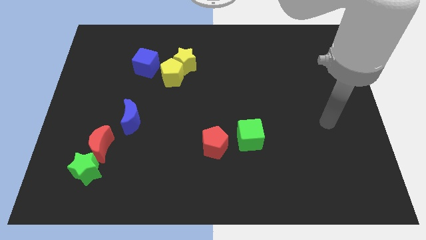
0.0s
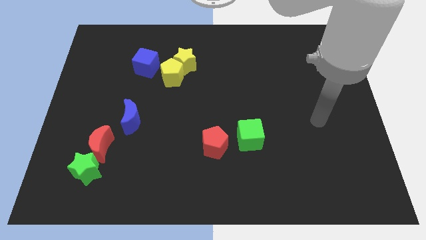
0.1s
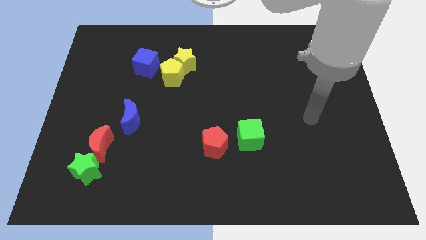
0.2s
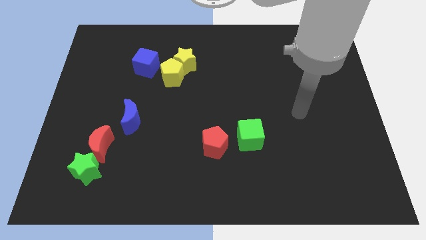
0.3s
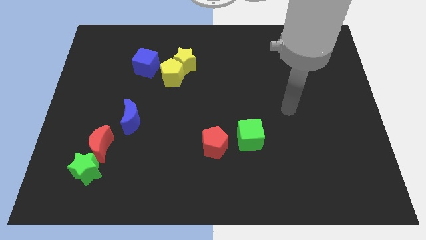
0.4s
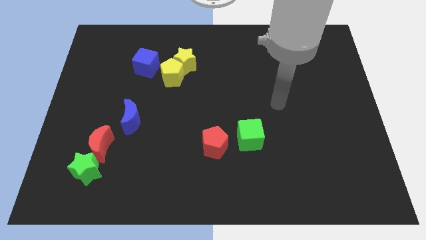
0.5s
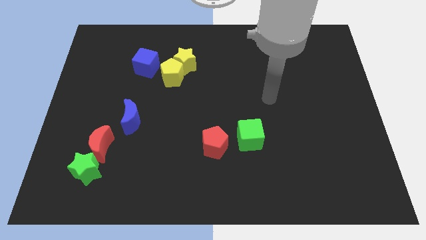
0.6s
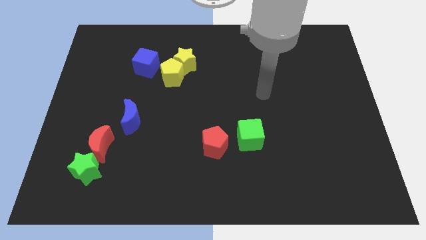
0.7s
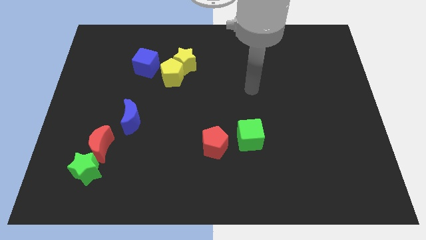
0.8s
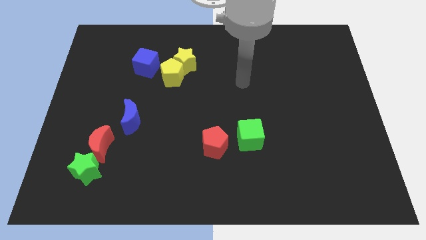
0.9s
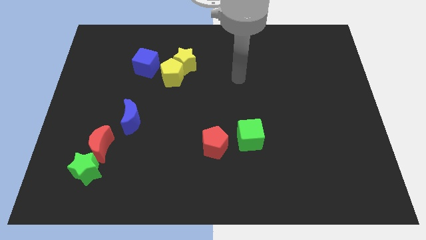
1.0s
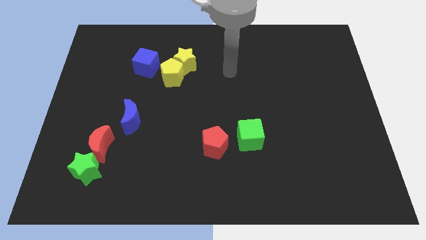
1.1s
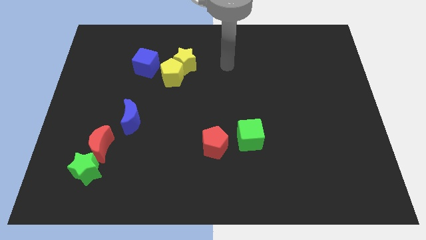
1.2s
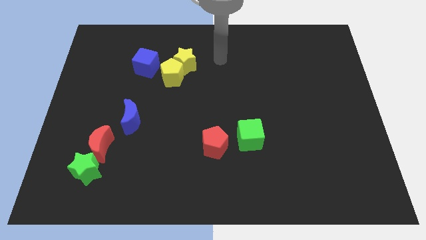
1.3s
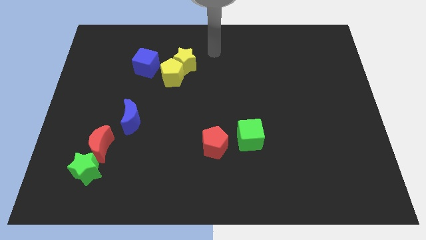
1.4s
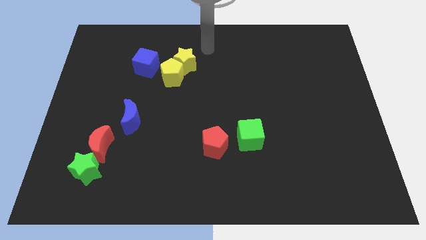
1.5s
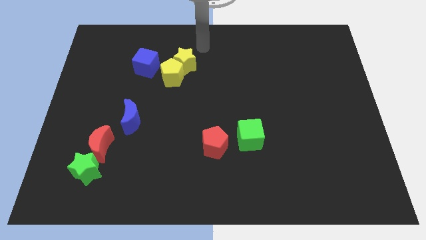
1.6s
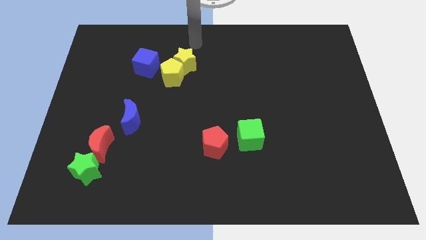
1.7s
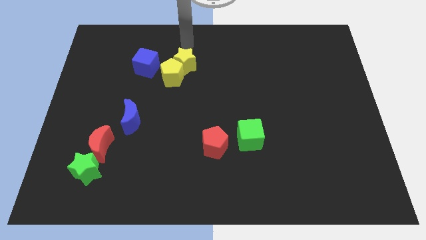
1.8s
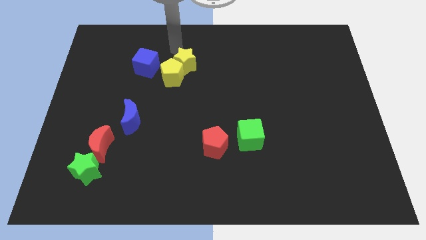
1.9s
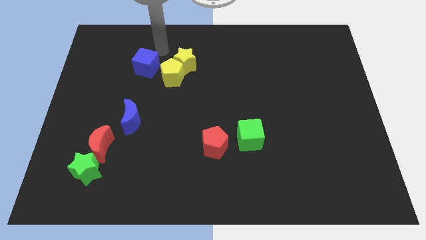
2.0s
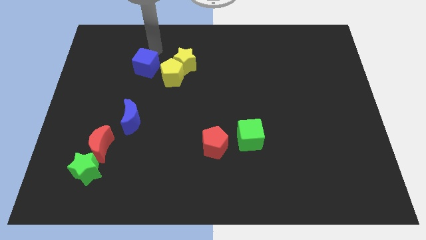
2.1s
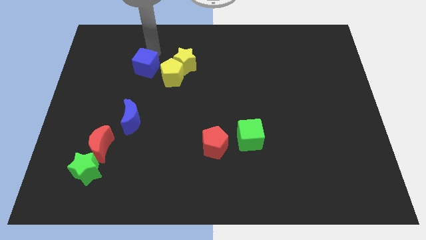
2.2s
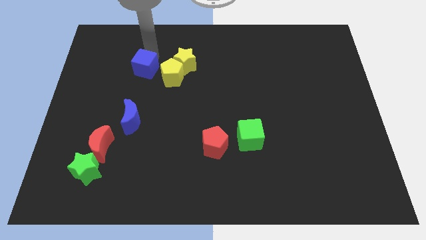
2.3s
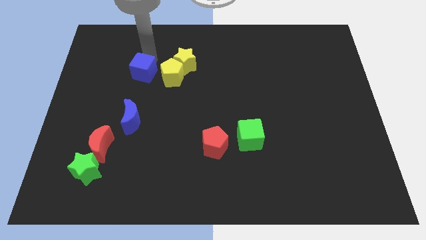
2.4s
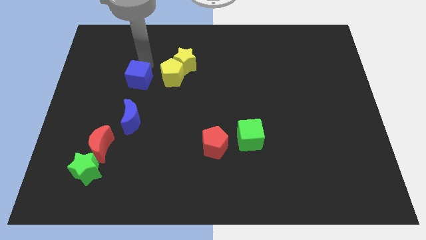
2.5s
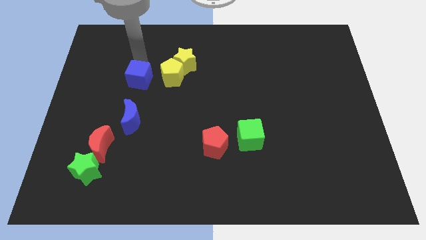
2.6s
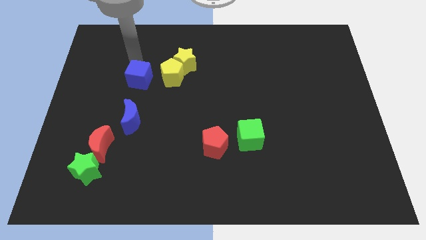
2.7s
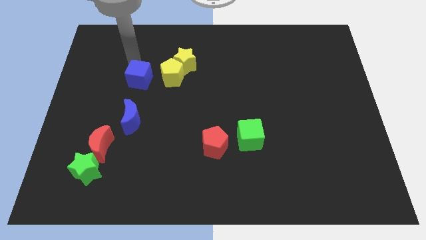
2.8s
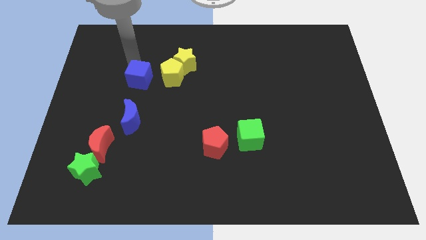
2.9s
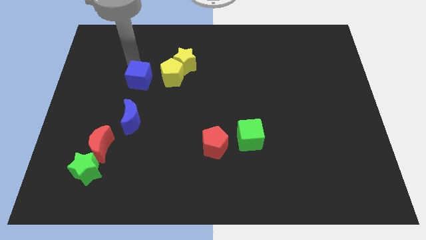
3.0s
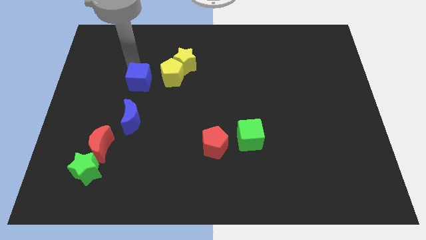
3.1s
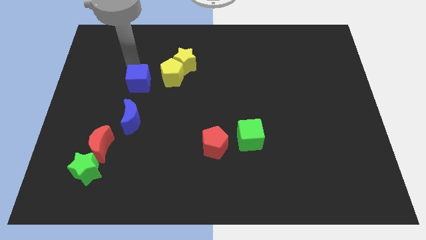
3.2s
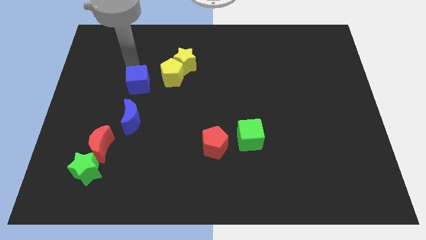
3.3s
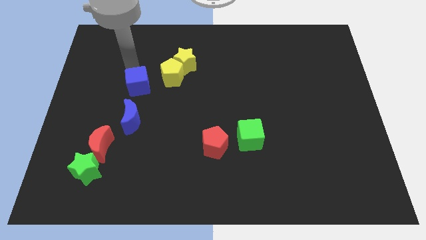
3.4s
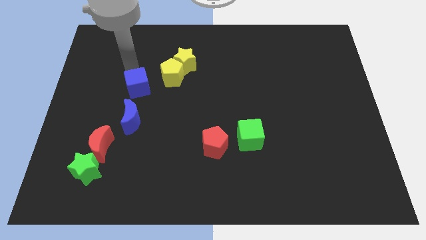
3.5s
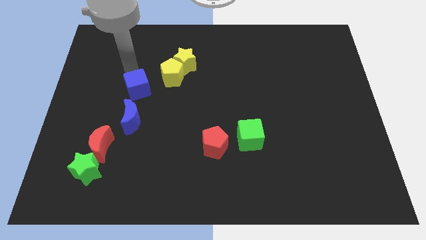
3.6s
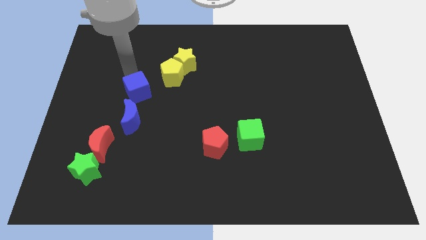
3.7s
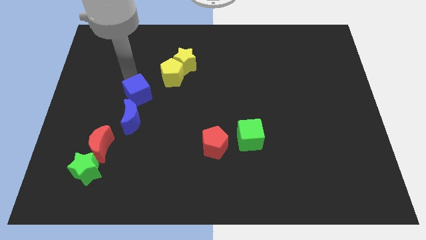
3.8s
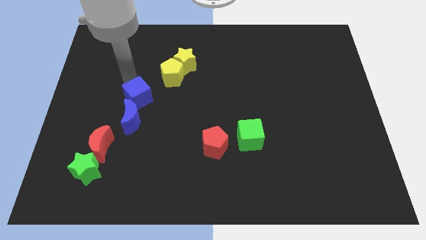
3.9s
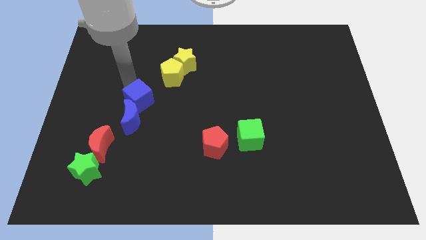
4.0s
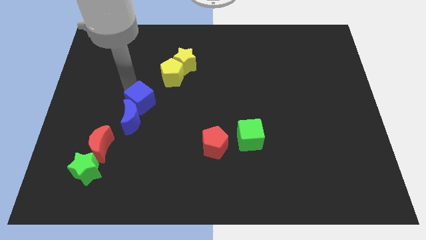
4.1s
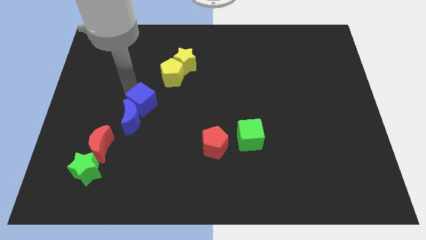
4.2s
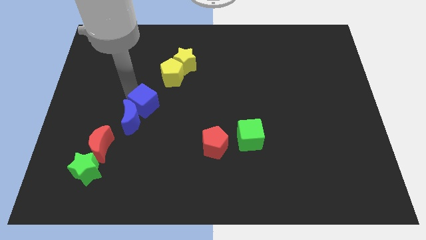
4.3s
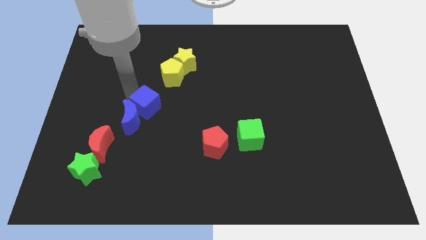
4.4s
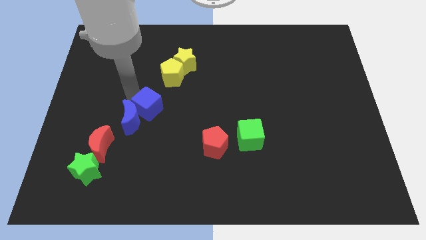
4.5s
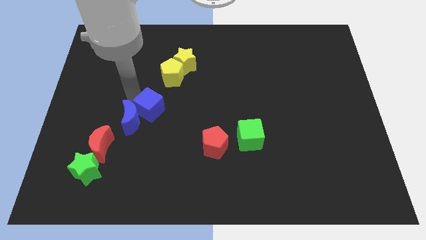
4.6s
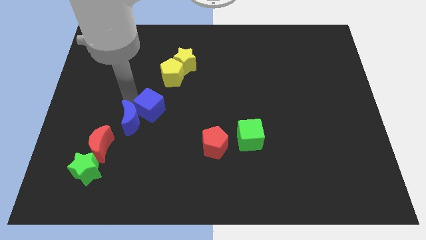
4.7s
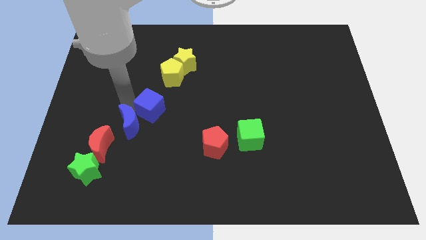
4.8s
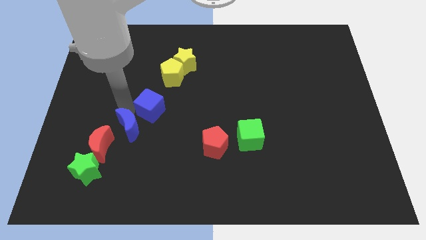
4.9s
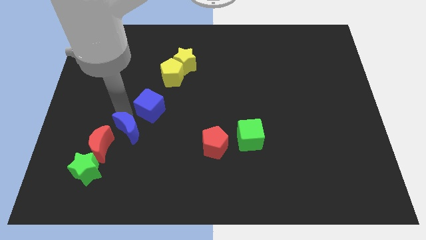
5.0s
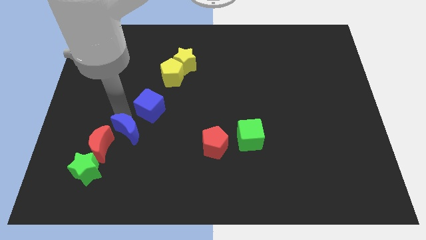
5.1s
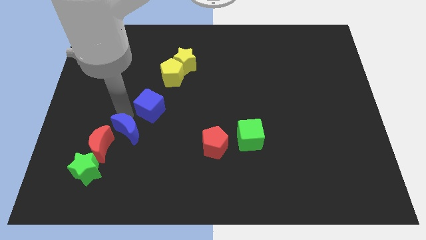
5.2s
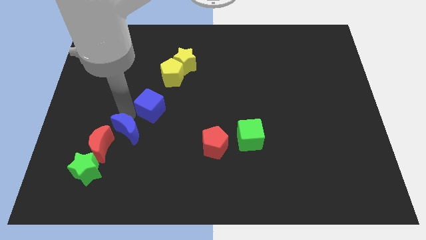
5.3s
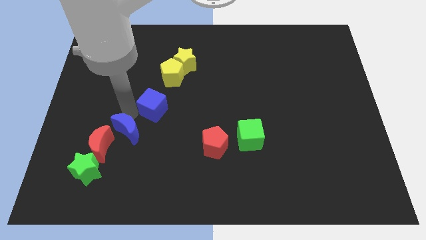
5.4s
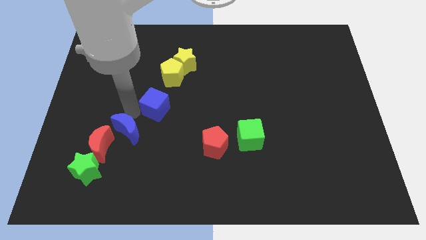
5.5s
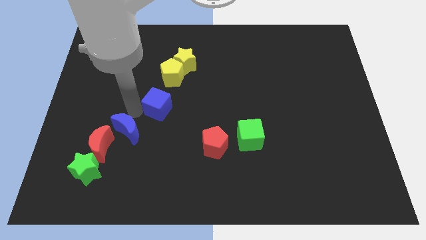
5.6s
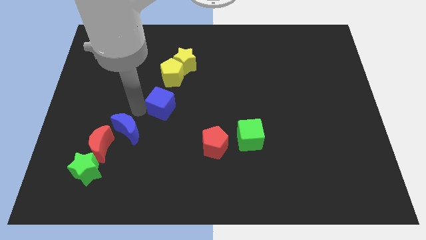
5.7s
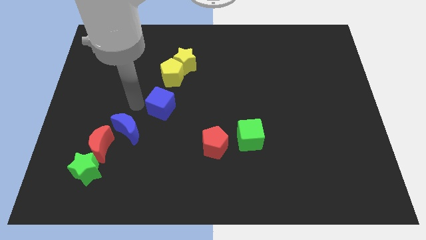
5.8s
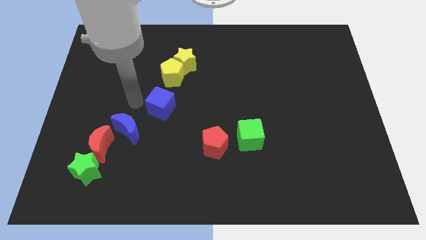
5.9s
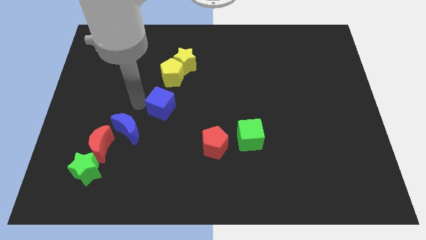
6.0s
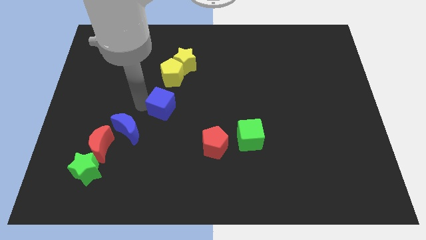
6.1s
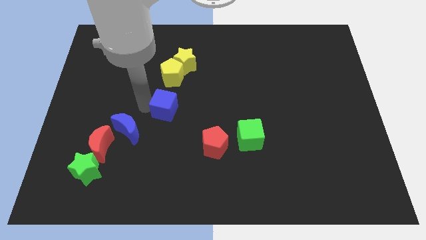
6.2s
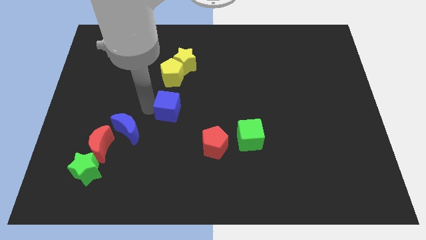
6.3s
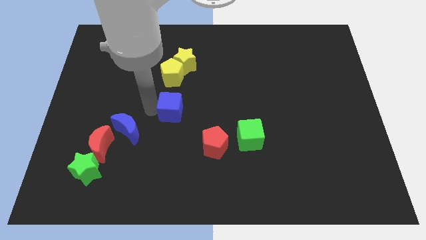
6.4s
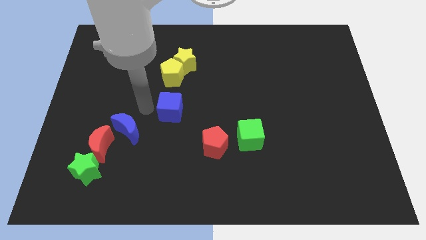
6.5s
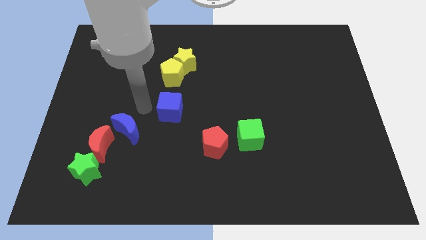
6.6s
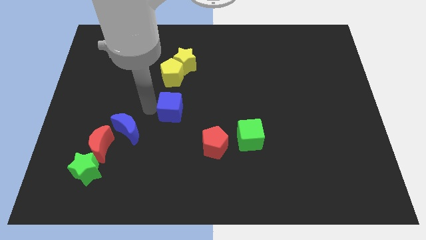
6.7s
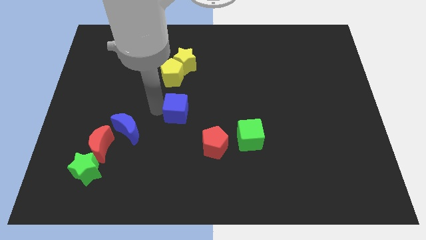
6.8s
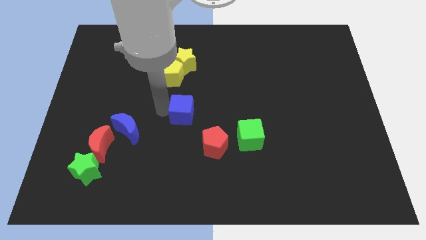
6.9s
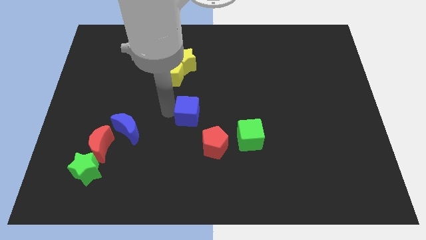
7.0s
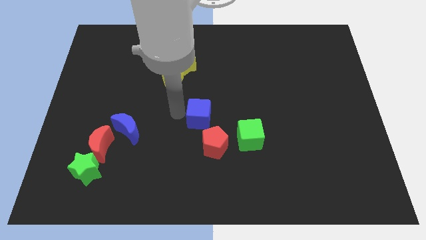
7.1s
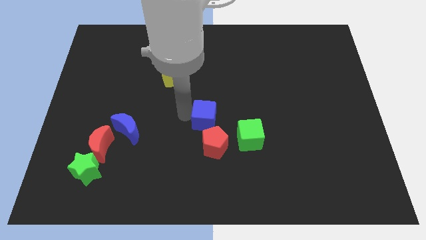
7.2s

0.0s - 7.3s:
slide the blue cube to the top left of the green cube
